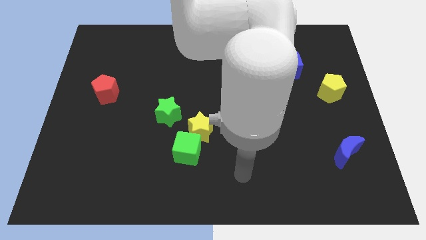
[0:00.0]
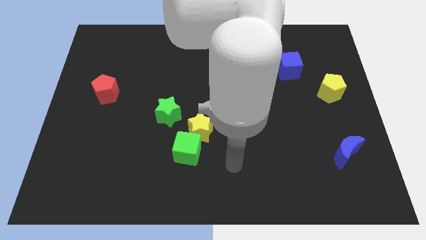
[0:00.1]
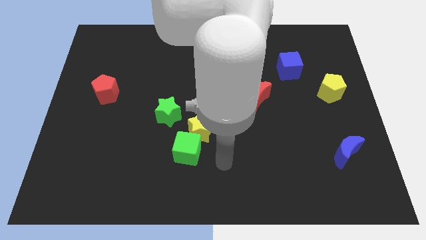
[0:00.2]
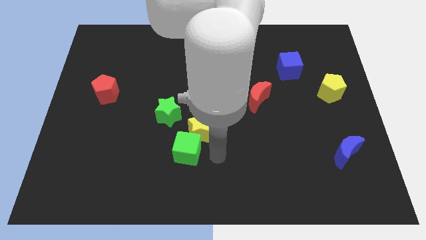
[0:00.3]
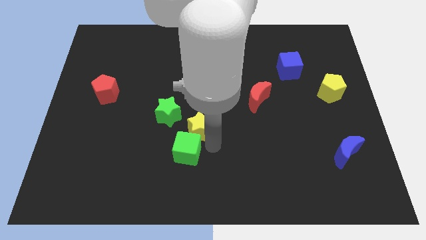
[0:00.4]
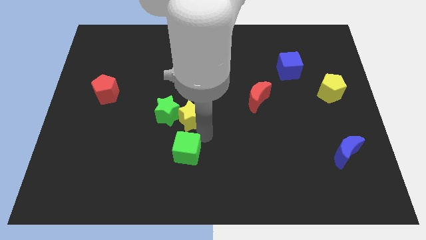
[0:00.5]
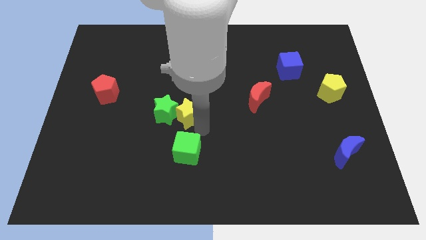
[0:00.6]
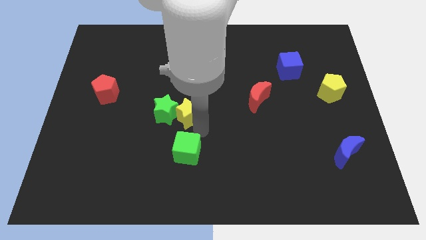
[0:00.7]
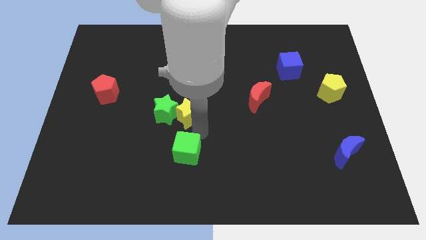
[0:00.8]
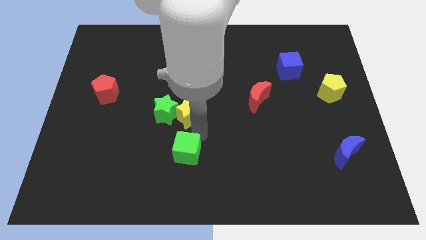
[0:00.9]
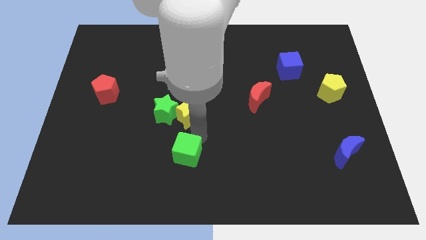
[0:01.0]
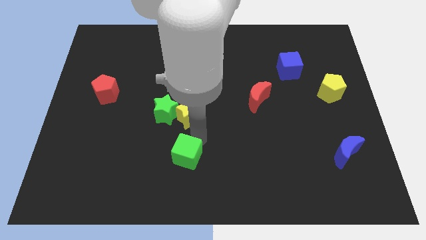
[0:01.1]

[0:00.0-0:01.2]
move the green cube away from the yellow star

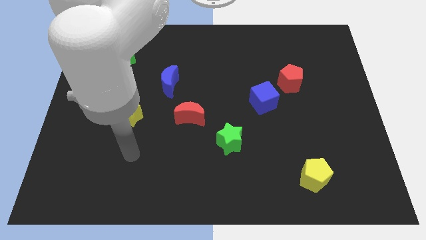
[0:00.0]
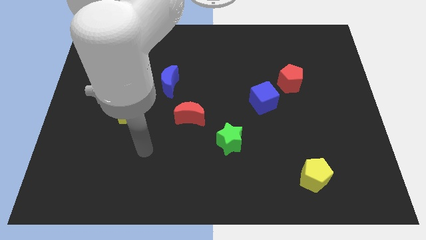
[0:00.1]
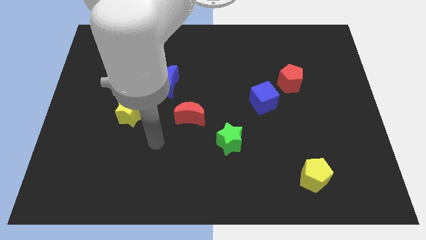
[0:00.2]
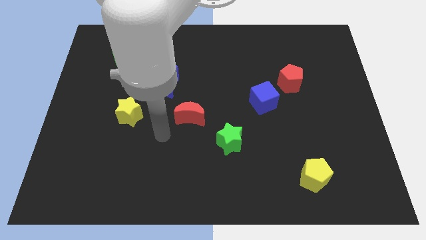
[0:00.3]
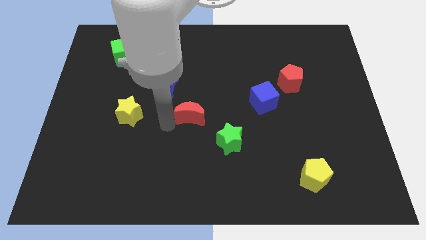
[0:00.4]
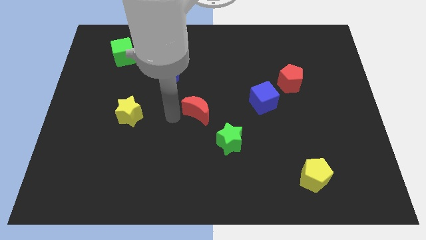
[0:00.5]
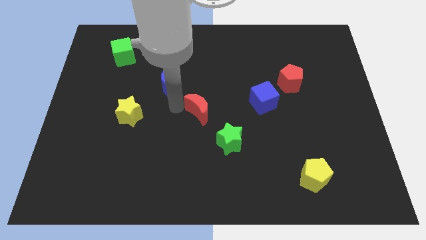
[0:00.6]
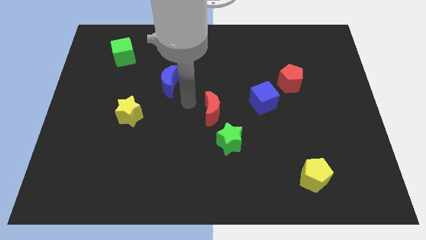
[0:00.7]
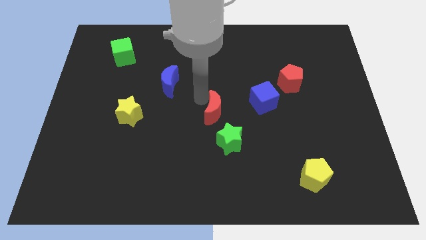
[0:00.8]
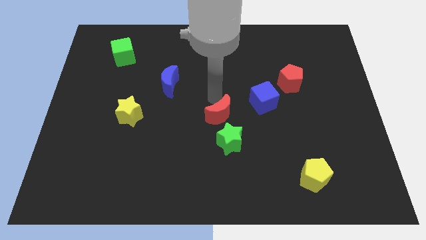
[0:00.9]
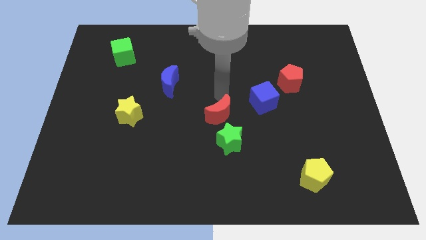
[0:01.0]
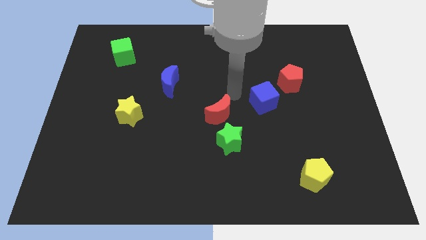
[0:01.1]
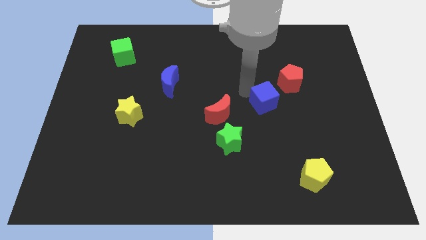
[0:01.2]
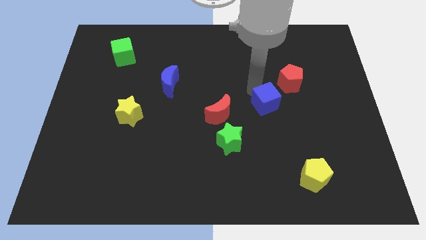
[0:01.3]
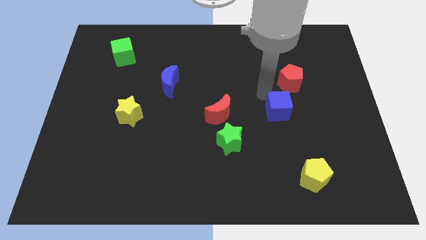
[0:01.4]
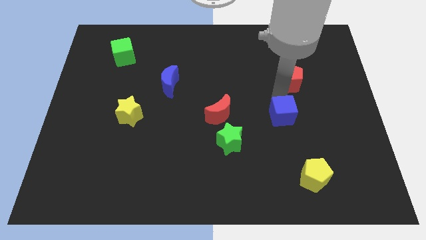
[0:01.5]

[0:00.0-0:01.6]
move the red pentagon away from the blue cube

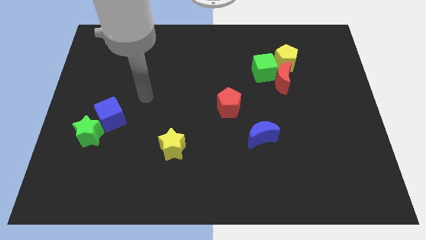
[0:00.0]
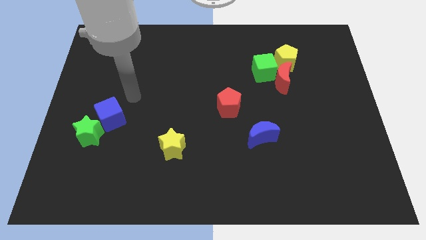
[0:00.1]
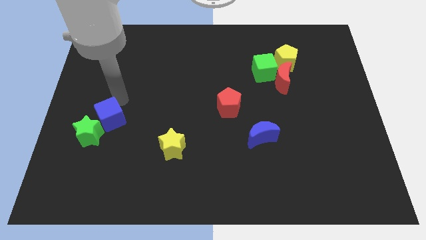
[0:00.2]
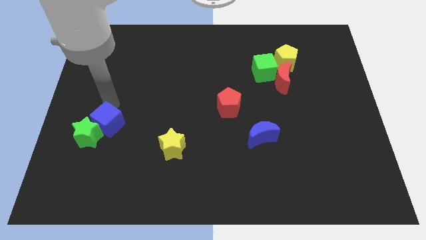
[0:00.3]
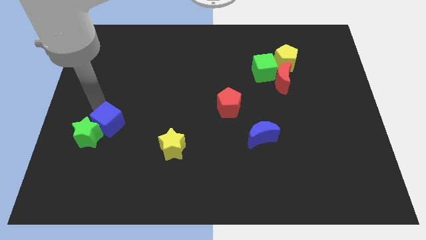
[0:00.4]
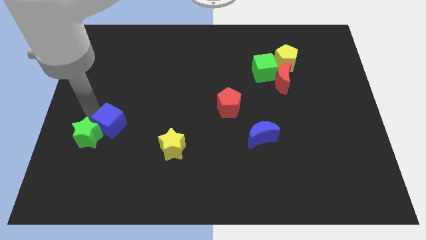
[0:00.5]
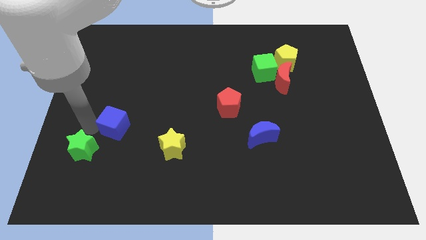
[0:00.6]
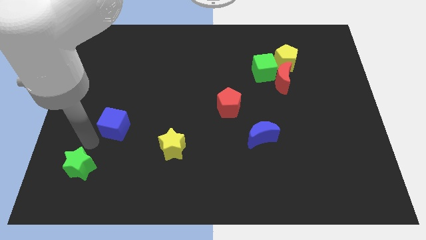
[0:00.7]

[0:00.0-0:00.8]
pull the blue cube apart from the green star

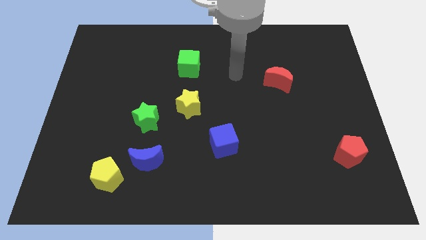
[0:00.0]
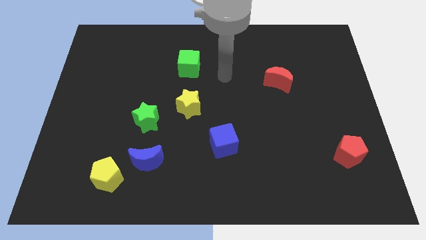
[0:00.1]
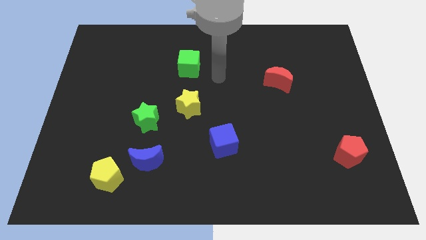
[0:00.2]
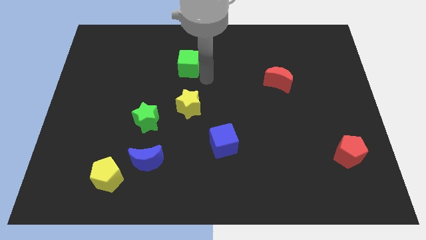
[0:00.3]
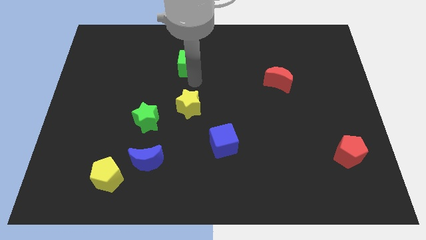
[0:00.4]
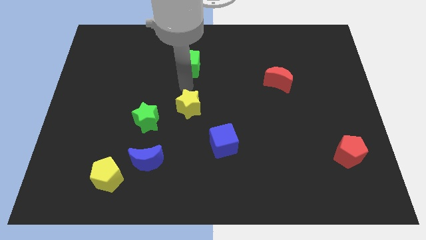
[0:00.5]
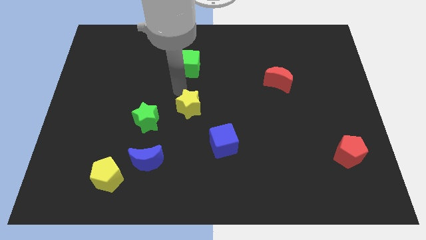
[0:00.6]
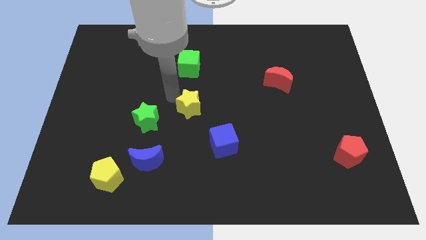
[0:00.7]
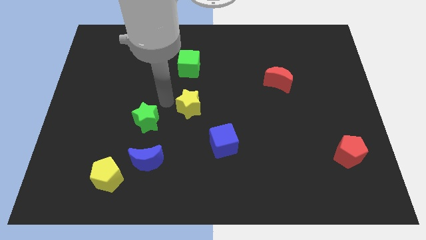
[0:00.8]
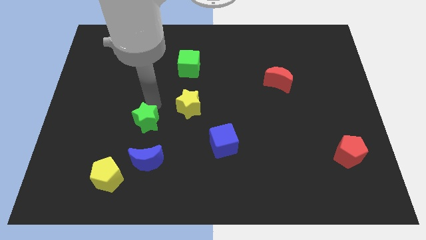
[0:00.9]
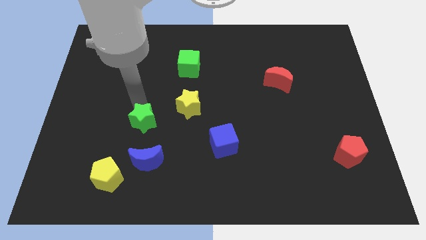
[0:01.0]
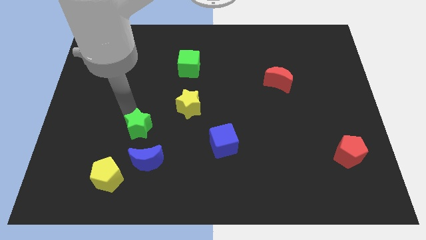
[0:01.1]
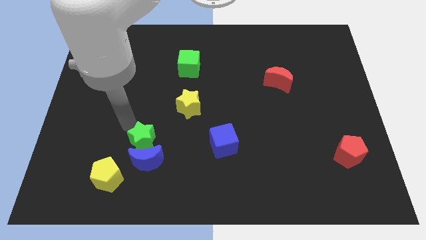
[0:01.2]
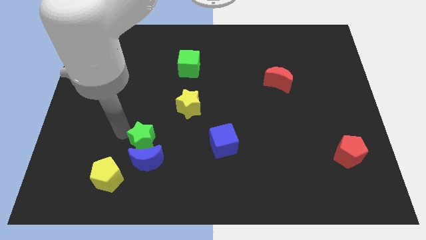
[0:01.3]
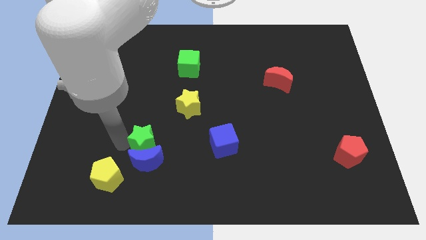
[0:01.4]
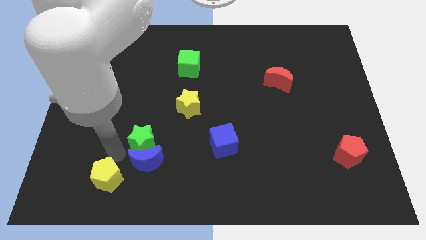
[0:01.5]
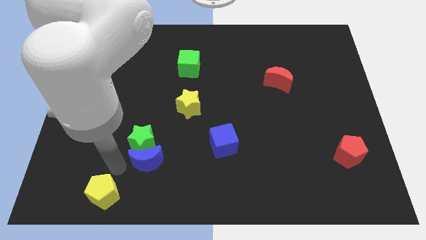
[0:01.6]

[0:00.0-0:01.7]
pull the blue moon apart from the yellow pentagon

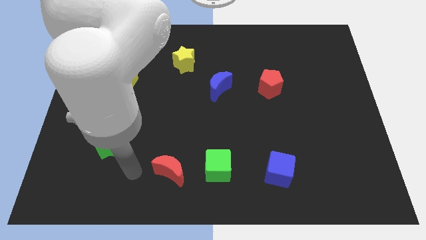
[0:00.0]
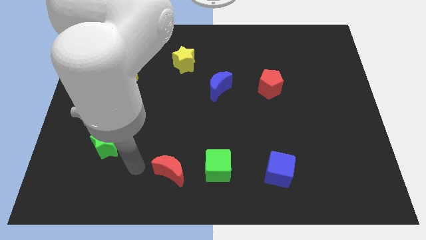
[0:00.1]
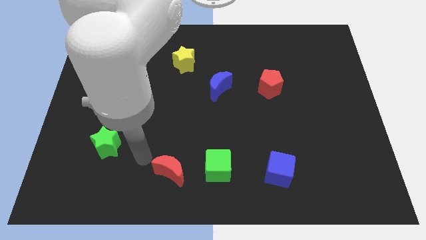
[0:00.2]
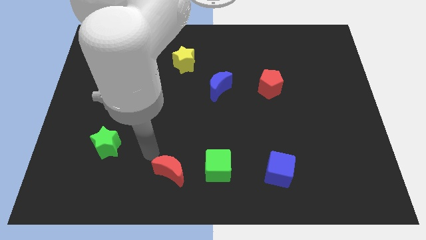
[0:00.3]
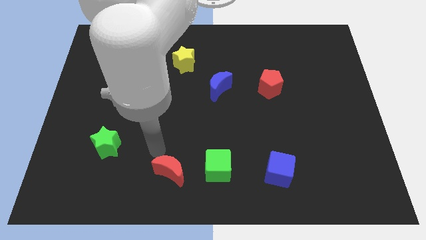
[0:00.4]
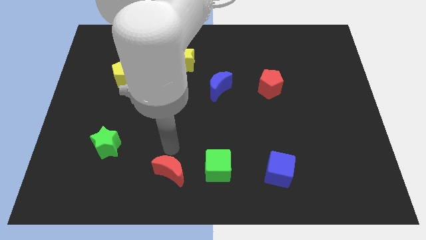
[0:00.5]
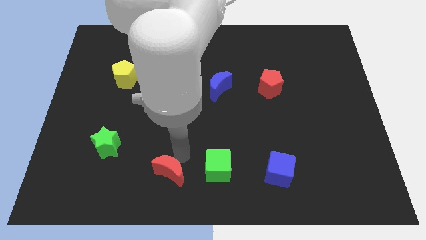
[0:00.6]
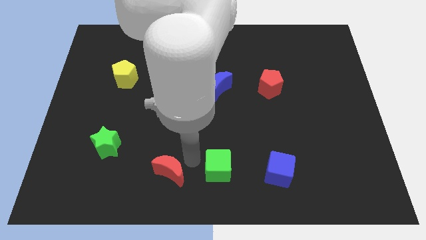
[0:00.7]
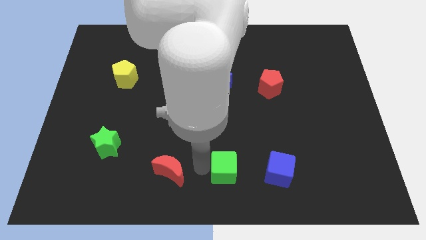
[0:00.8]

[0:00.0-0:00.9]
pull the red moon apart from the green cube

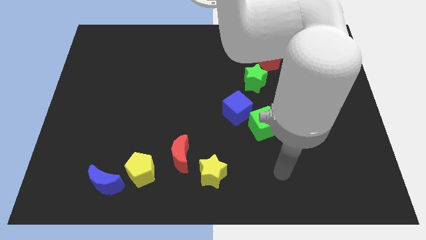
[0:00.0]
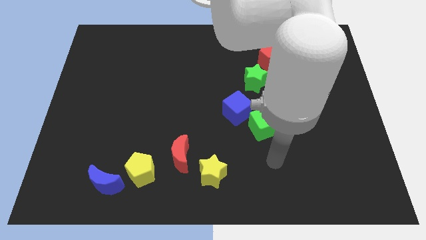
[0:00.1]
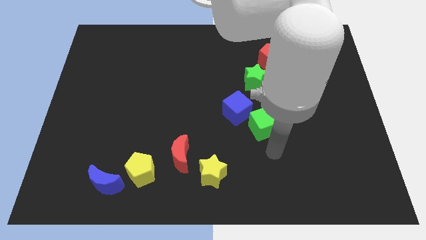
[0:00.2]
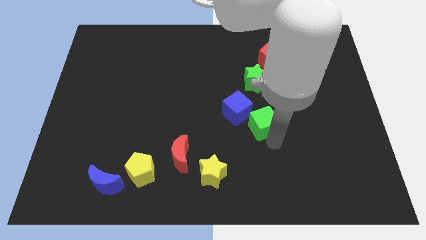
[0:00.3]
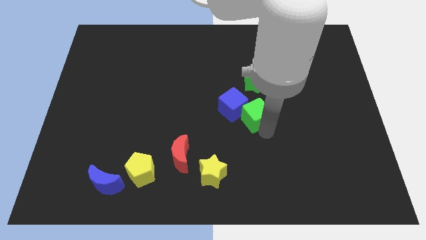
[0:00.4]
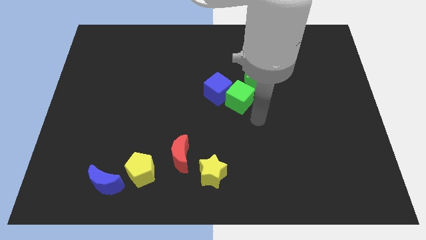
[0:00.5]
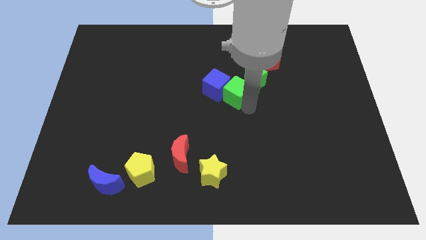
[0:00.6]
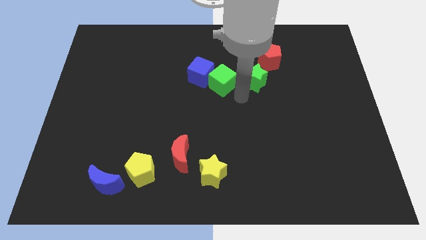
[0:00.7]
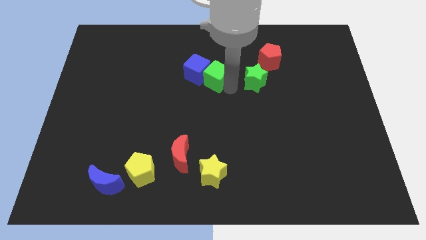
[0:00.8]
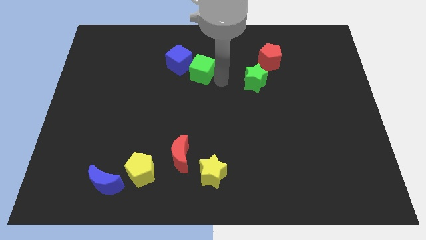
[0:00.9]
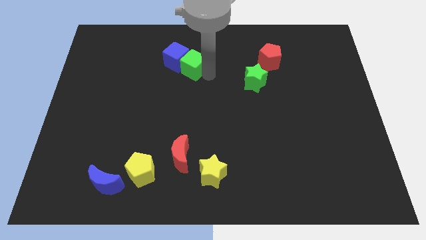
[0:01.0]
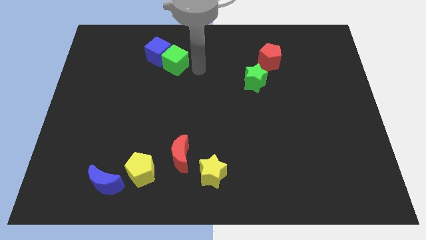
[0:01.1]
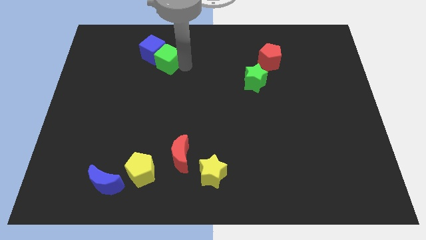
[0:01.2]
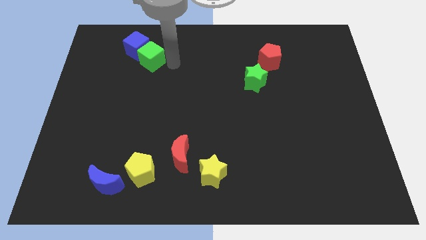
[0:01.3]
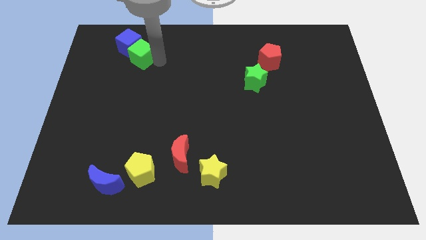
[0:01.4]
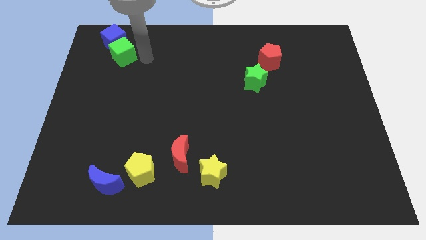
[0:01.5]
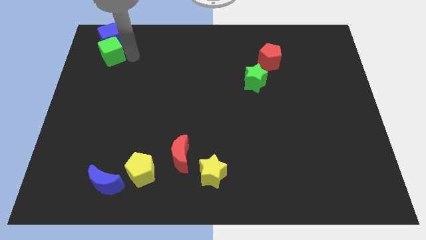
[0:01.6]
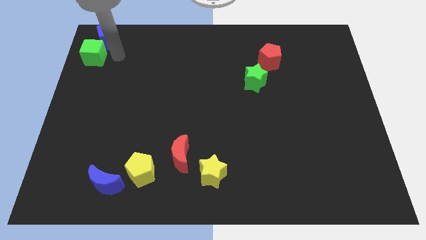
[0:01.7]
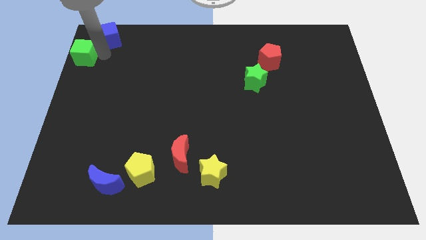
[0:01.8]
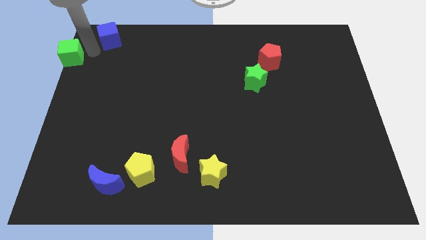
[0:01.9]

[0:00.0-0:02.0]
move the blue cube away from the green cube

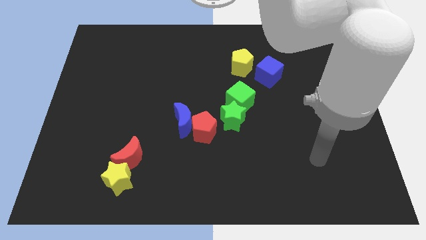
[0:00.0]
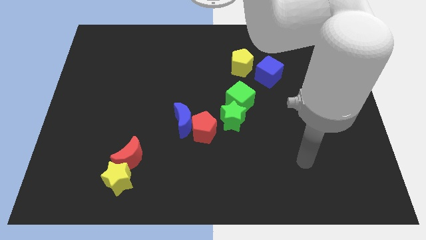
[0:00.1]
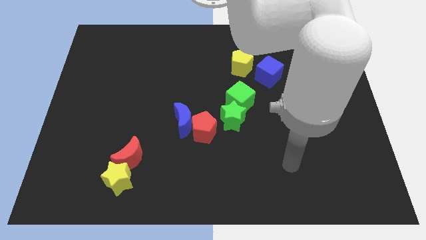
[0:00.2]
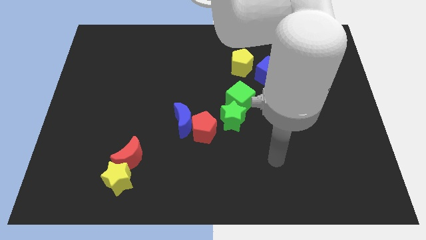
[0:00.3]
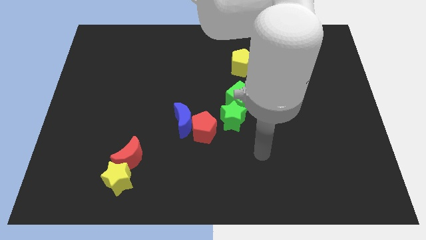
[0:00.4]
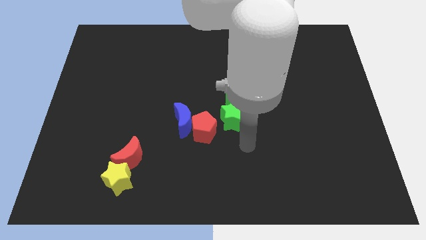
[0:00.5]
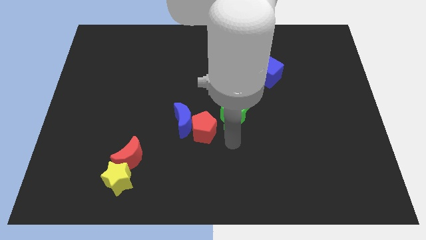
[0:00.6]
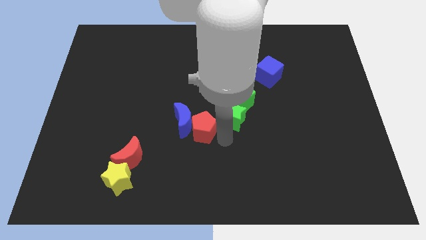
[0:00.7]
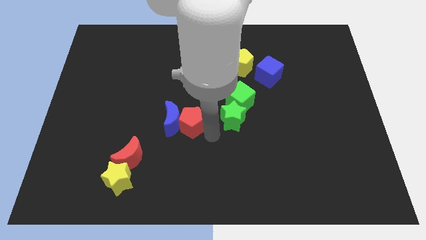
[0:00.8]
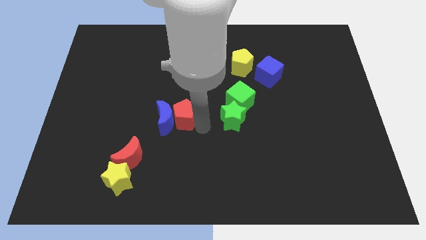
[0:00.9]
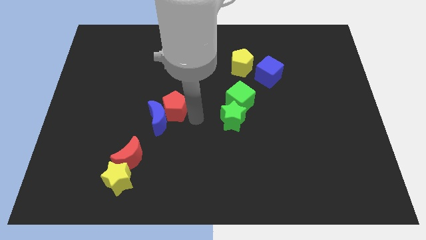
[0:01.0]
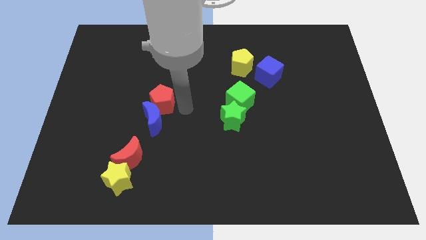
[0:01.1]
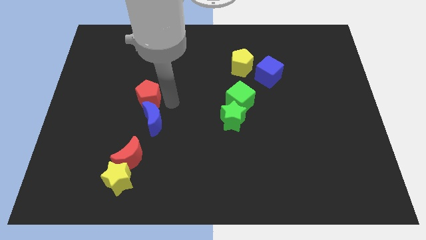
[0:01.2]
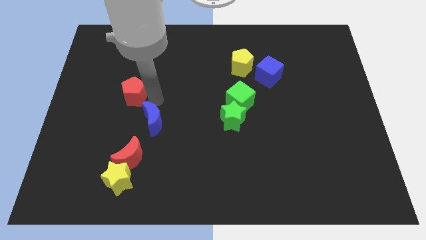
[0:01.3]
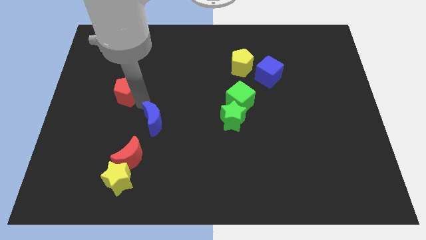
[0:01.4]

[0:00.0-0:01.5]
pull the blue moon apart from the red pentagon
